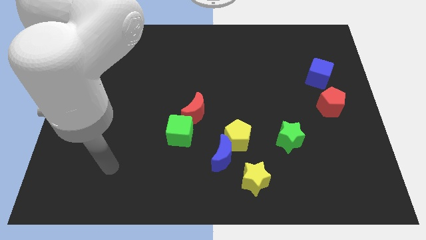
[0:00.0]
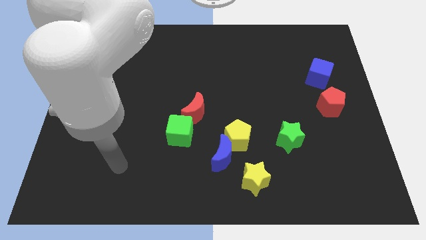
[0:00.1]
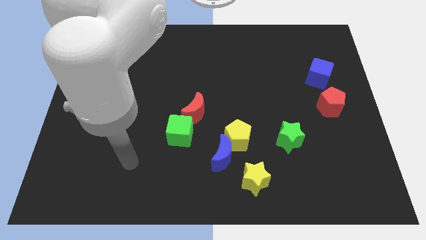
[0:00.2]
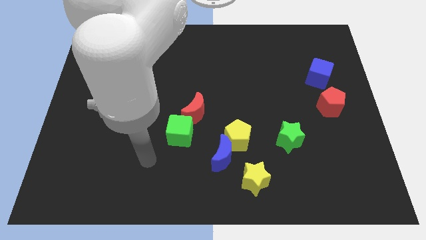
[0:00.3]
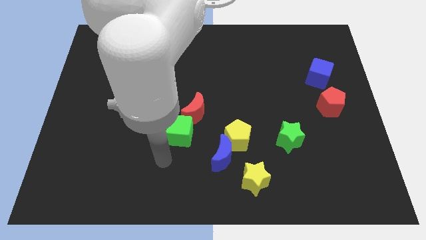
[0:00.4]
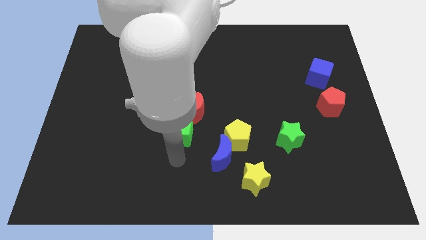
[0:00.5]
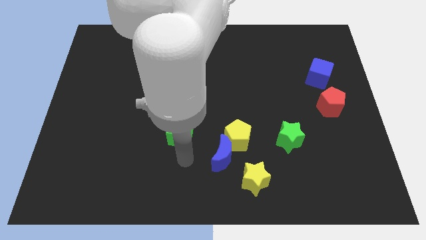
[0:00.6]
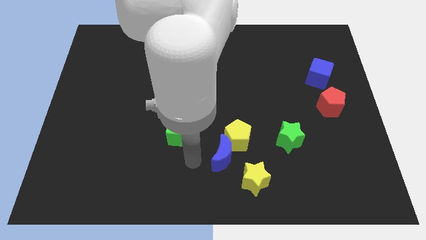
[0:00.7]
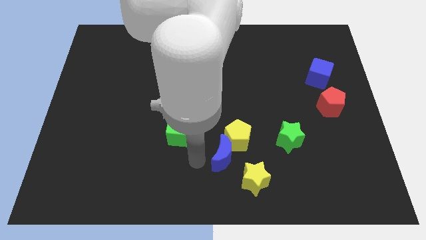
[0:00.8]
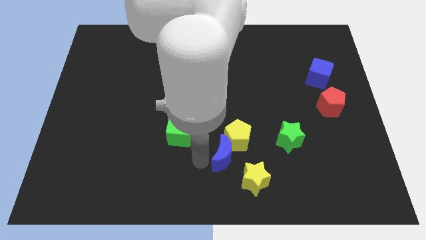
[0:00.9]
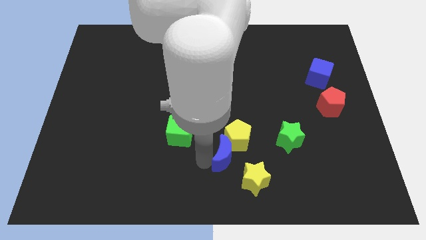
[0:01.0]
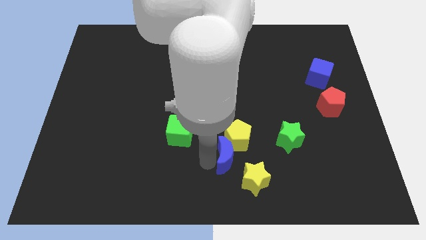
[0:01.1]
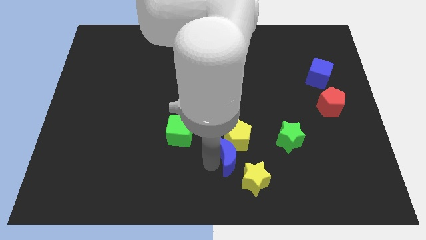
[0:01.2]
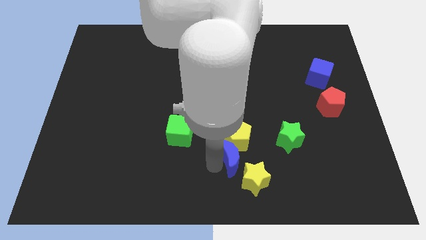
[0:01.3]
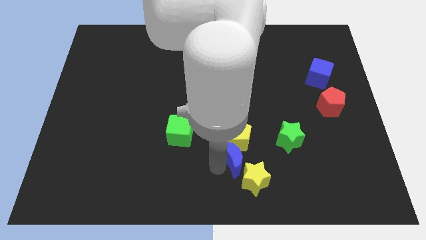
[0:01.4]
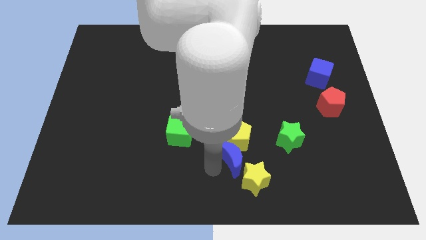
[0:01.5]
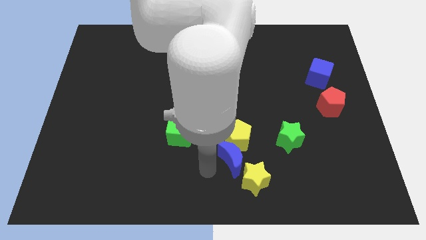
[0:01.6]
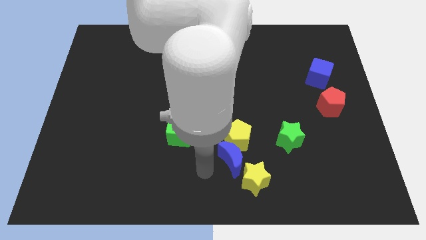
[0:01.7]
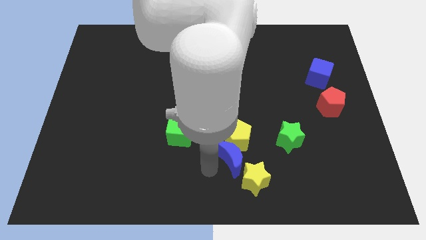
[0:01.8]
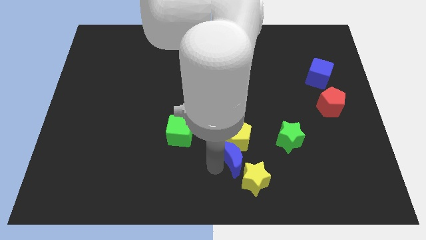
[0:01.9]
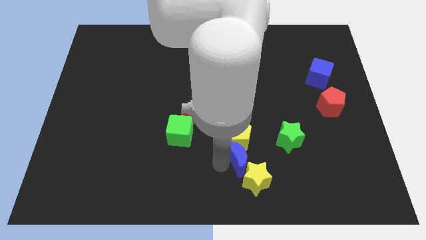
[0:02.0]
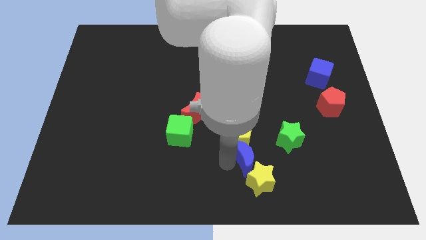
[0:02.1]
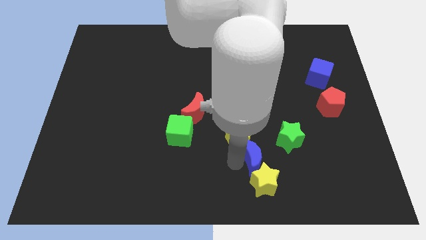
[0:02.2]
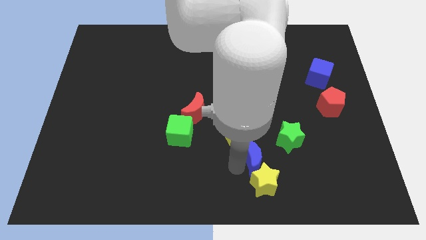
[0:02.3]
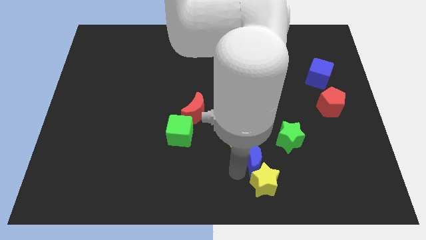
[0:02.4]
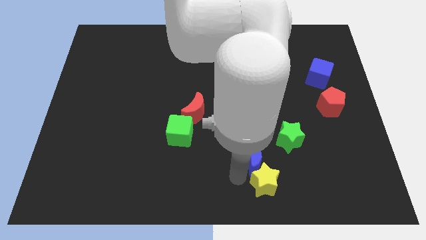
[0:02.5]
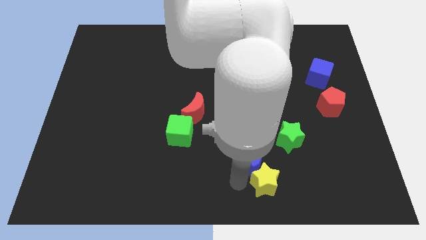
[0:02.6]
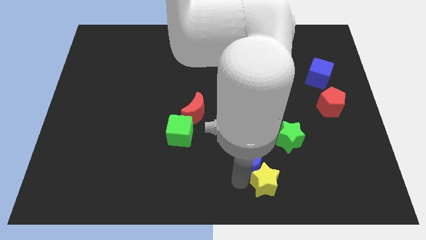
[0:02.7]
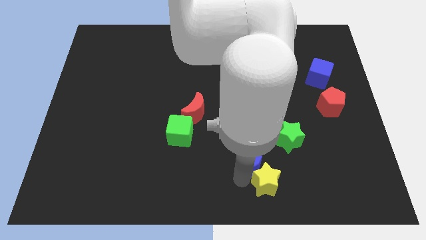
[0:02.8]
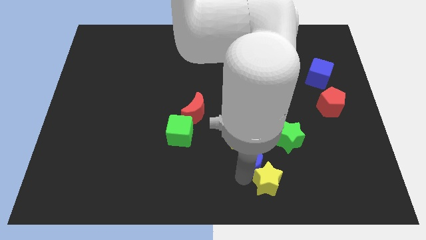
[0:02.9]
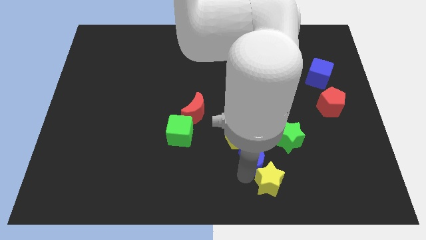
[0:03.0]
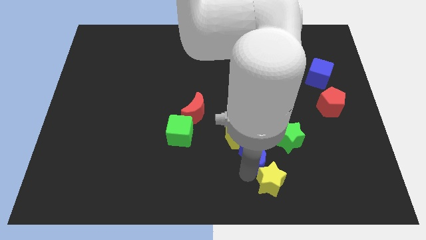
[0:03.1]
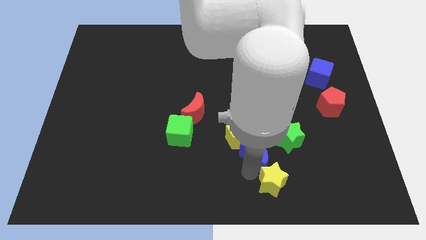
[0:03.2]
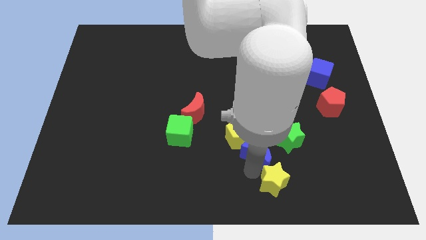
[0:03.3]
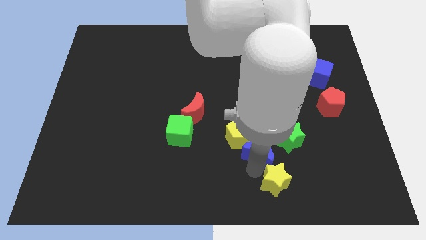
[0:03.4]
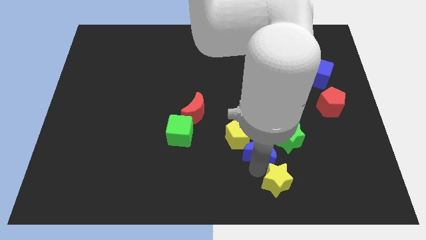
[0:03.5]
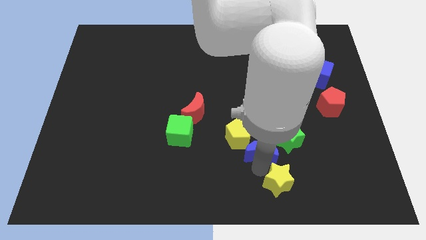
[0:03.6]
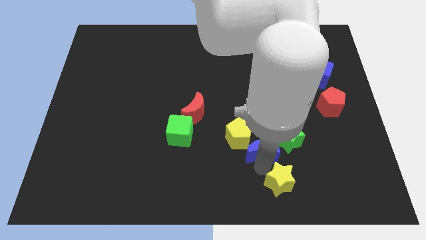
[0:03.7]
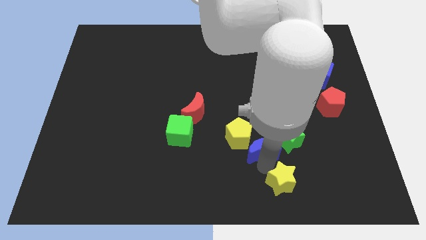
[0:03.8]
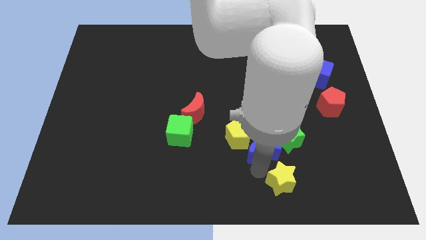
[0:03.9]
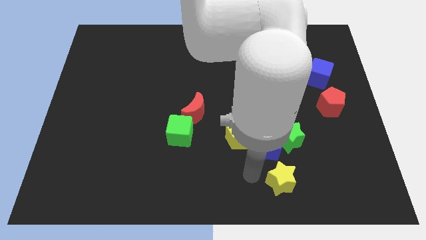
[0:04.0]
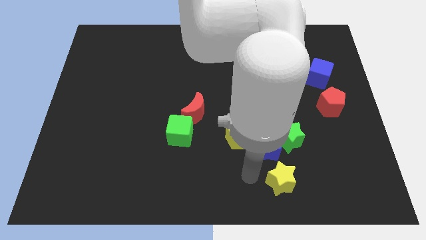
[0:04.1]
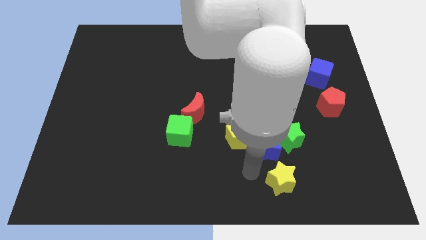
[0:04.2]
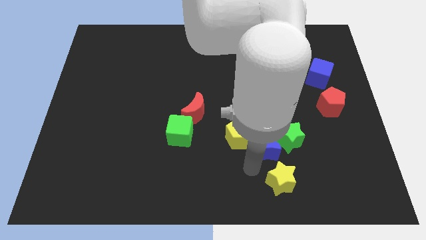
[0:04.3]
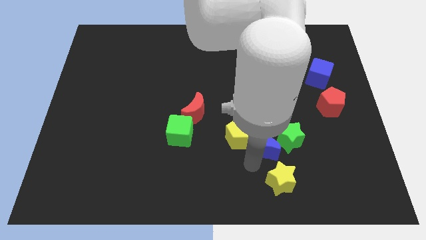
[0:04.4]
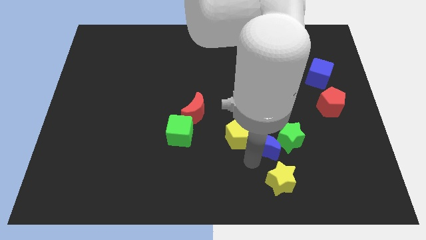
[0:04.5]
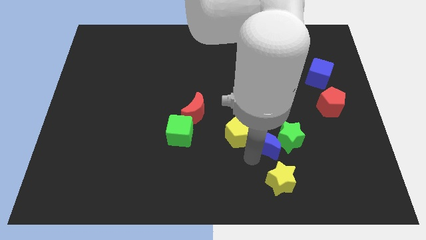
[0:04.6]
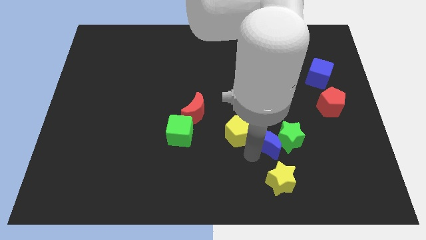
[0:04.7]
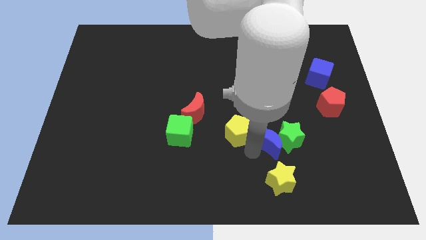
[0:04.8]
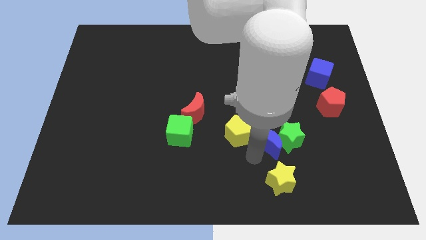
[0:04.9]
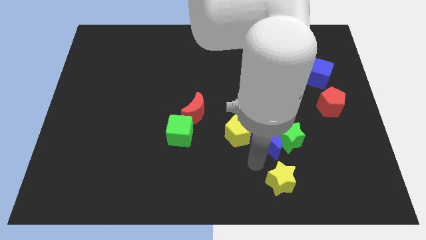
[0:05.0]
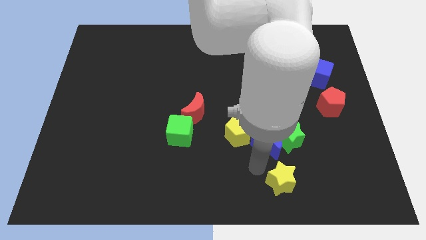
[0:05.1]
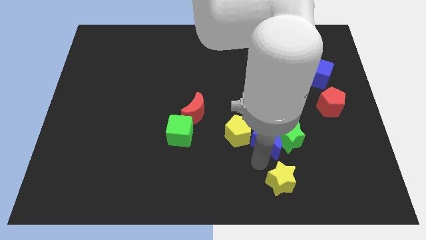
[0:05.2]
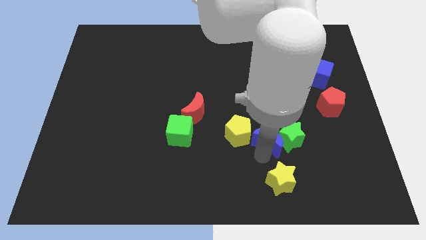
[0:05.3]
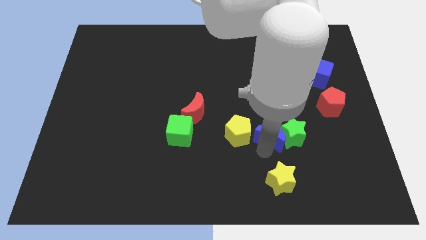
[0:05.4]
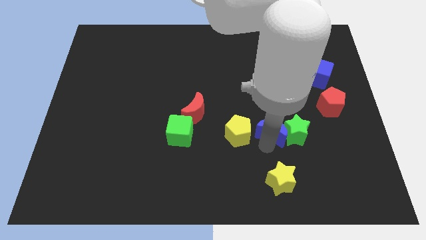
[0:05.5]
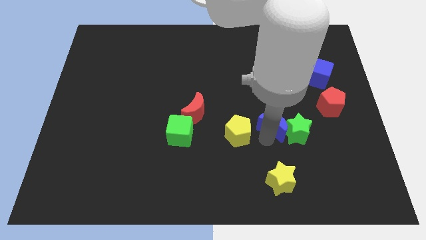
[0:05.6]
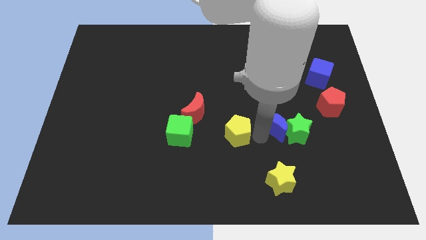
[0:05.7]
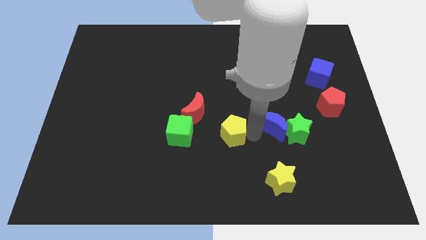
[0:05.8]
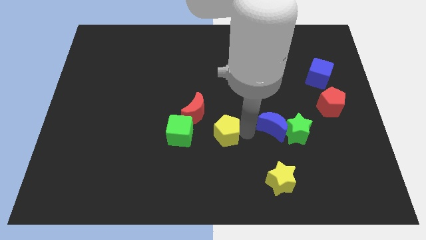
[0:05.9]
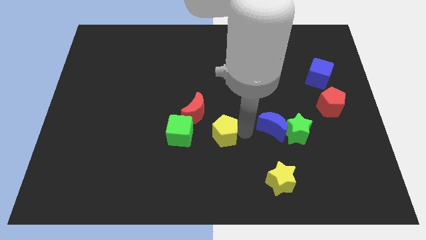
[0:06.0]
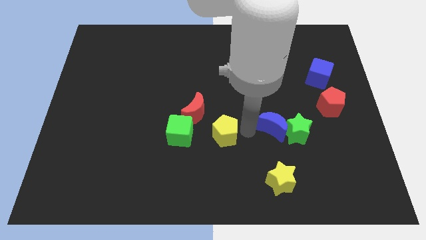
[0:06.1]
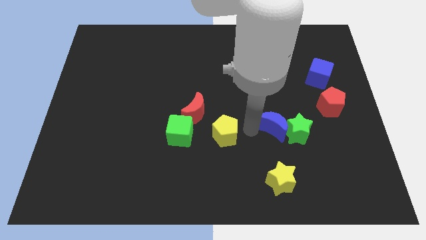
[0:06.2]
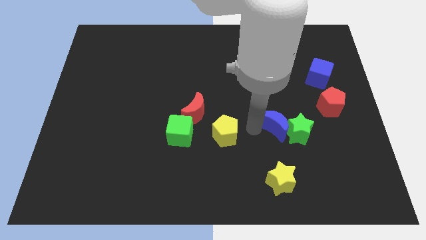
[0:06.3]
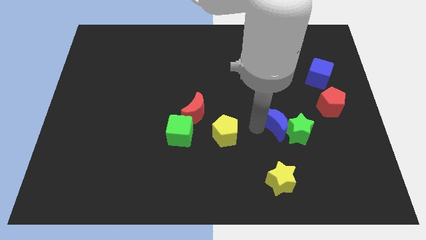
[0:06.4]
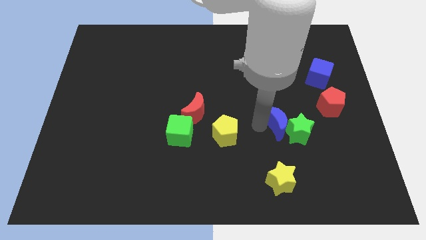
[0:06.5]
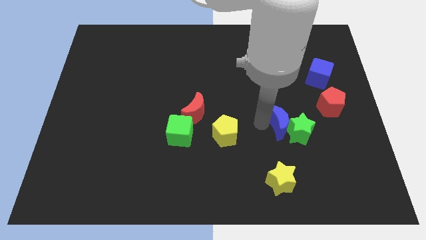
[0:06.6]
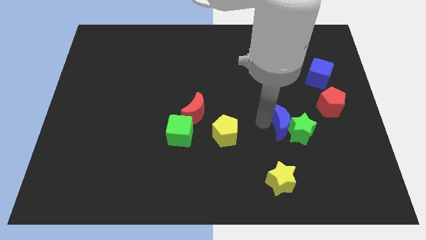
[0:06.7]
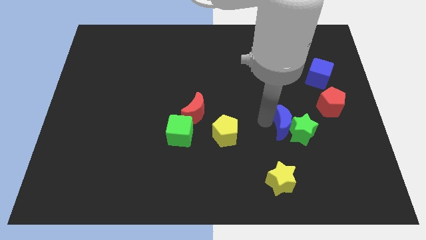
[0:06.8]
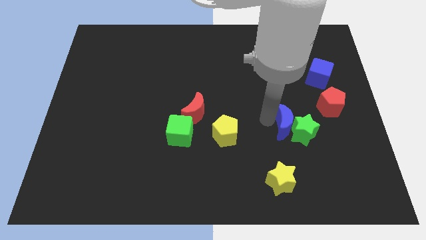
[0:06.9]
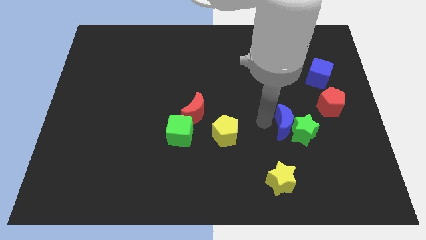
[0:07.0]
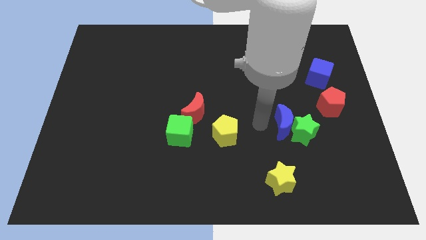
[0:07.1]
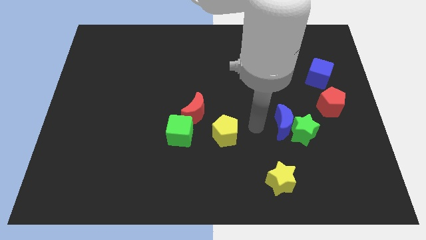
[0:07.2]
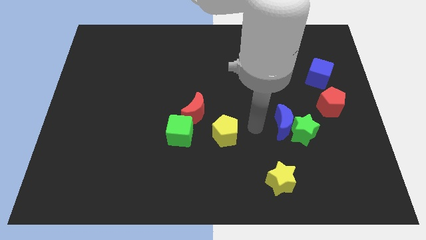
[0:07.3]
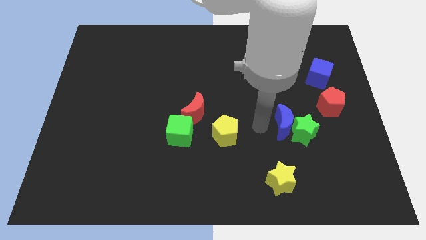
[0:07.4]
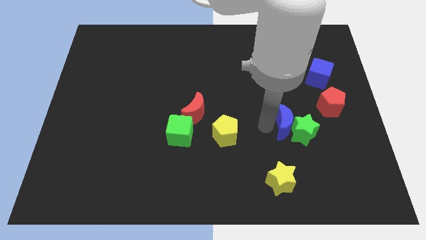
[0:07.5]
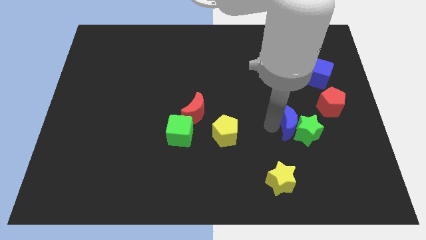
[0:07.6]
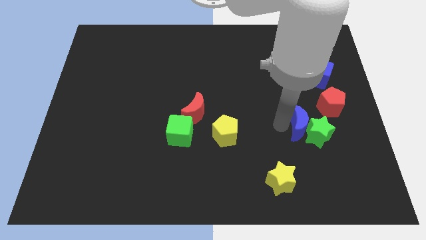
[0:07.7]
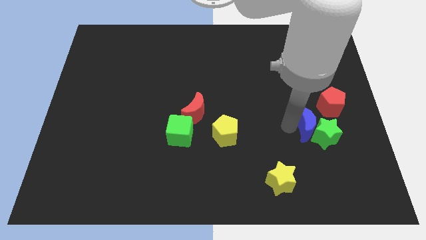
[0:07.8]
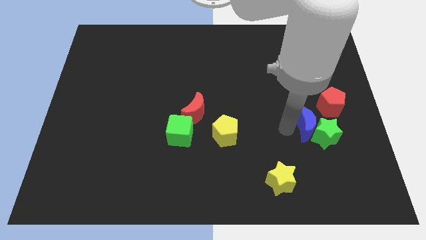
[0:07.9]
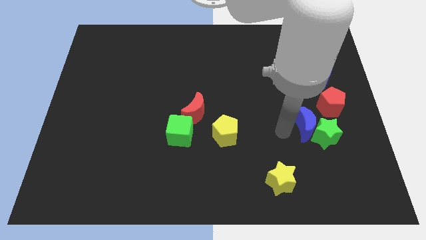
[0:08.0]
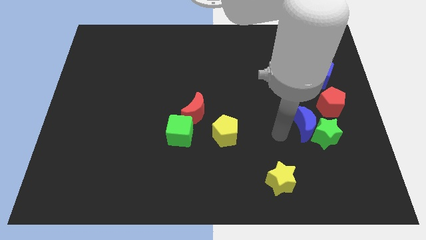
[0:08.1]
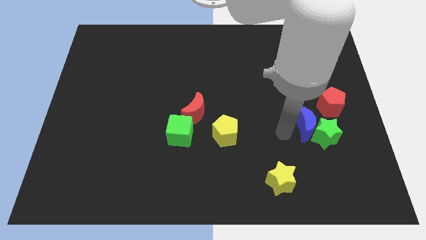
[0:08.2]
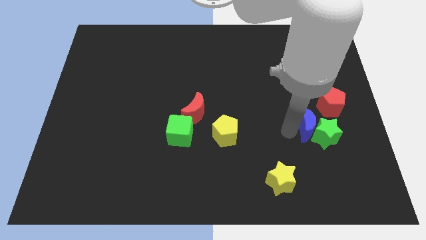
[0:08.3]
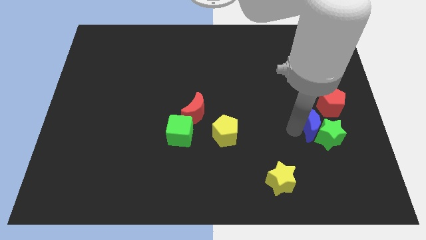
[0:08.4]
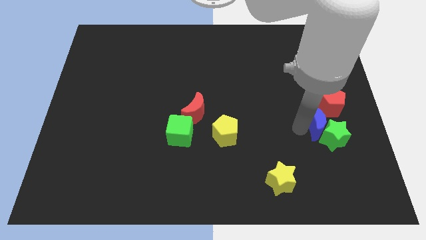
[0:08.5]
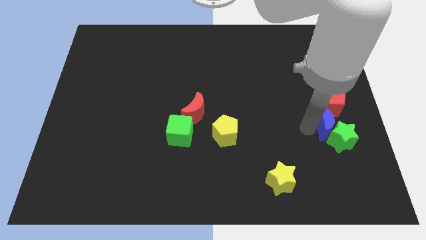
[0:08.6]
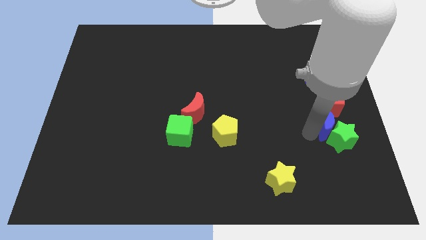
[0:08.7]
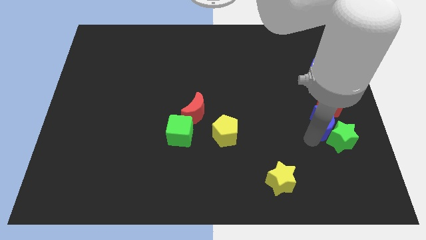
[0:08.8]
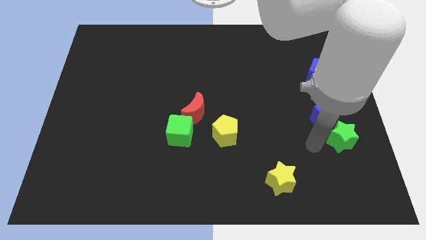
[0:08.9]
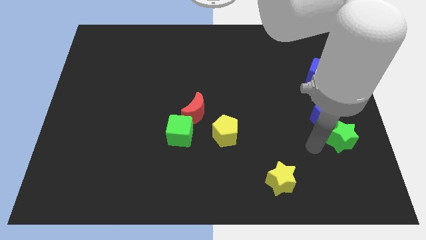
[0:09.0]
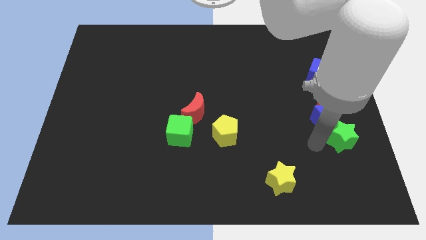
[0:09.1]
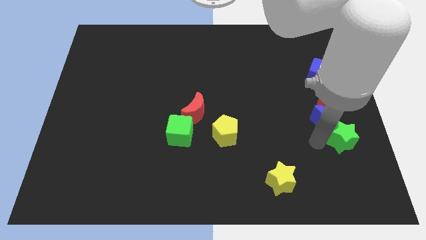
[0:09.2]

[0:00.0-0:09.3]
move the blue moon next to the red pentagon
